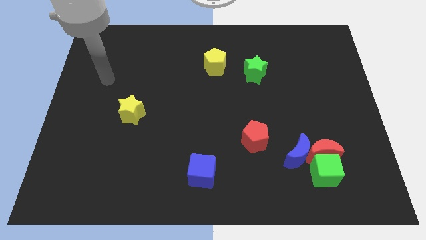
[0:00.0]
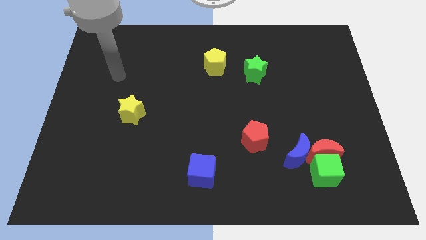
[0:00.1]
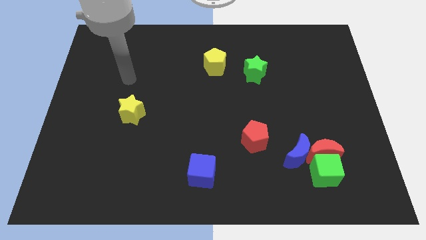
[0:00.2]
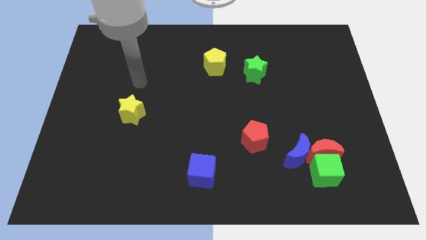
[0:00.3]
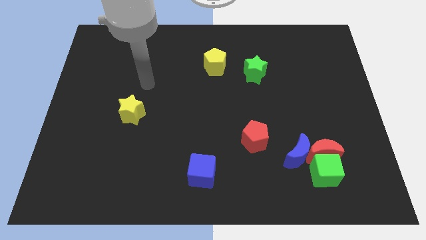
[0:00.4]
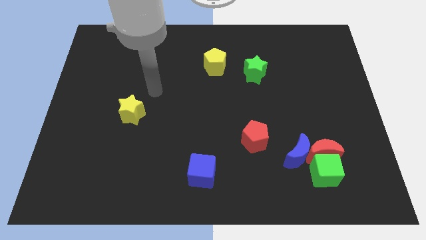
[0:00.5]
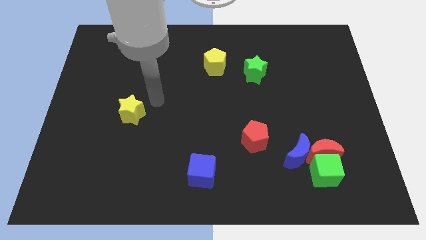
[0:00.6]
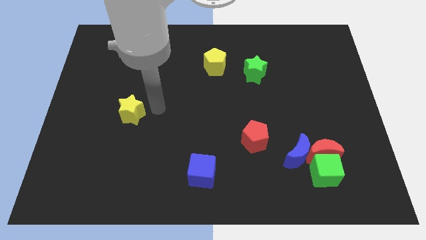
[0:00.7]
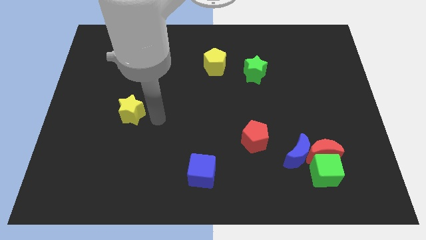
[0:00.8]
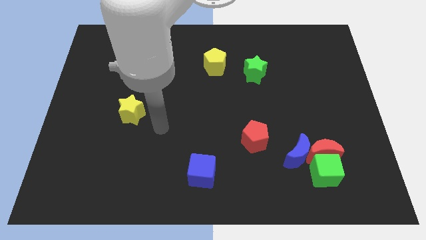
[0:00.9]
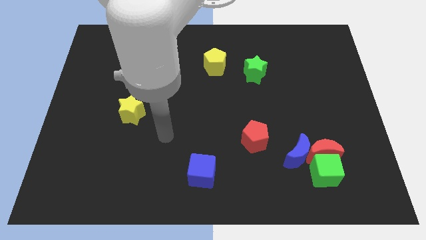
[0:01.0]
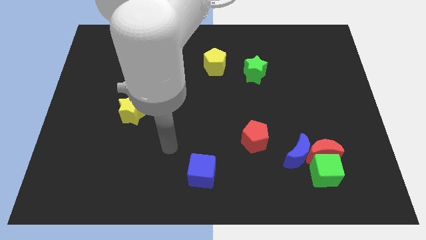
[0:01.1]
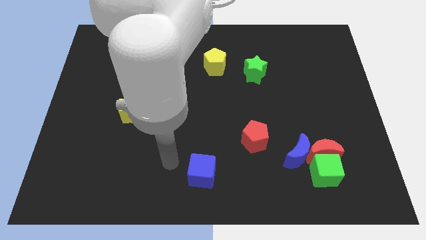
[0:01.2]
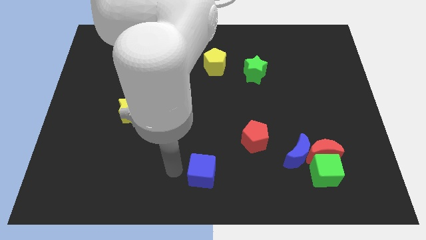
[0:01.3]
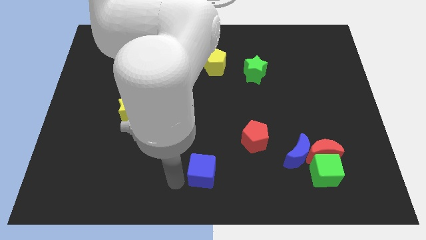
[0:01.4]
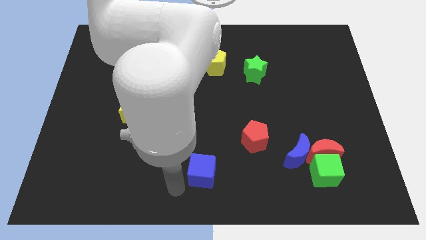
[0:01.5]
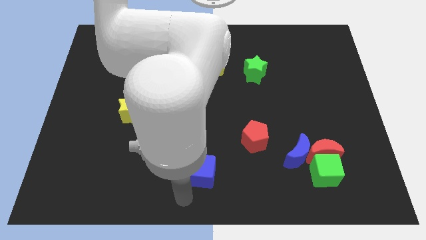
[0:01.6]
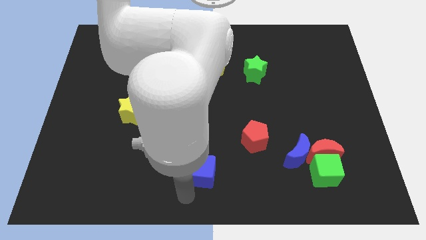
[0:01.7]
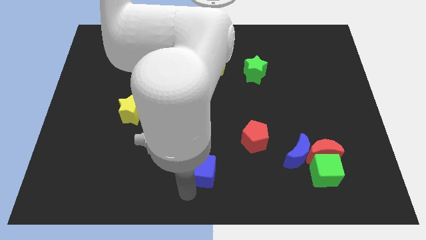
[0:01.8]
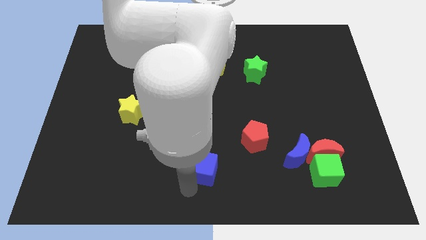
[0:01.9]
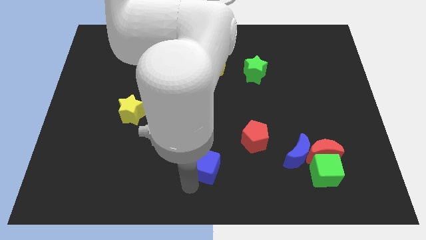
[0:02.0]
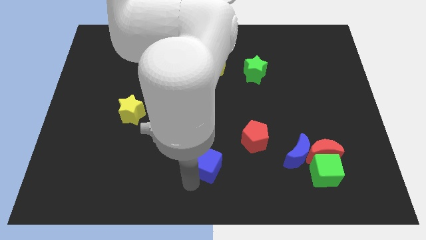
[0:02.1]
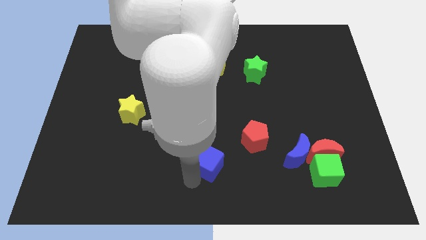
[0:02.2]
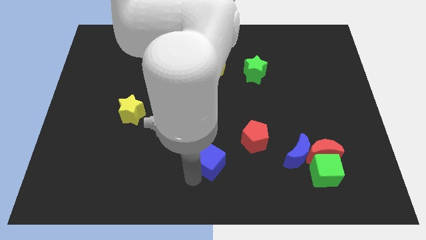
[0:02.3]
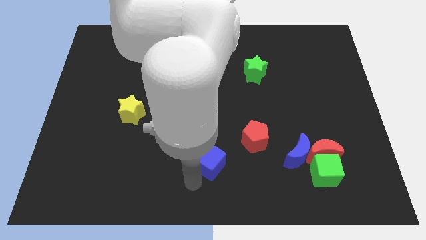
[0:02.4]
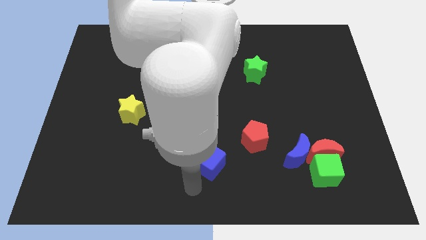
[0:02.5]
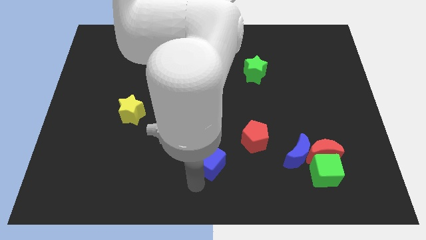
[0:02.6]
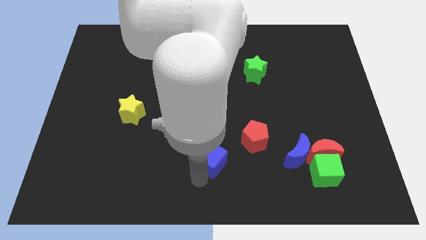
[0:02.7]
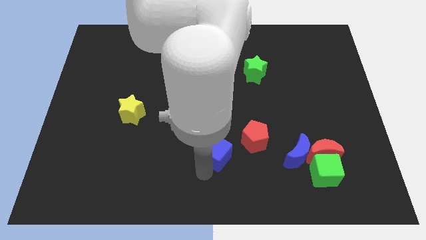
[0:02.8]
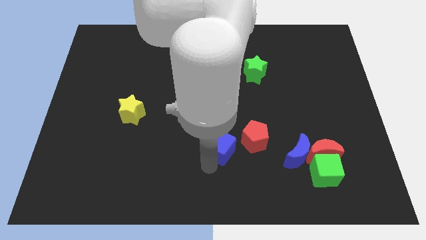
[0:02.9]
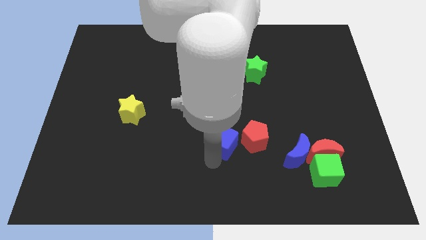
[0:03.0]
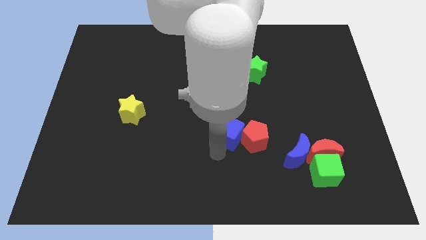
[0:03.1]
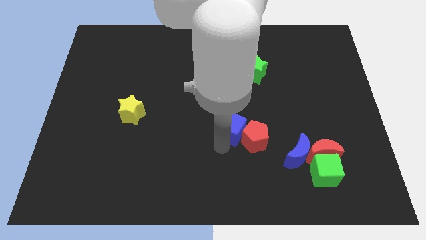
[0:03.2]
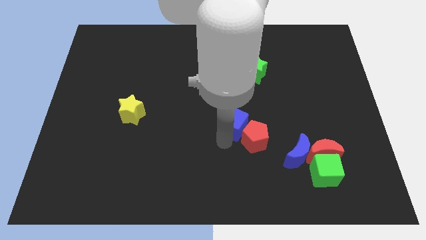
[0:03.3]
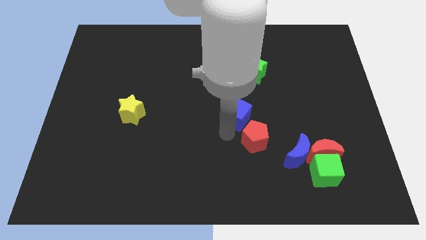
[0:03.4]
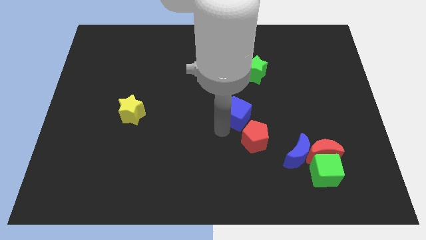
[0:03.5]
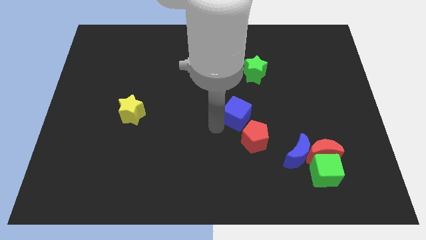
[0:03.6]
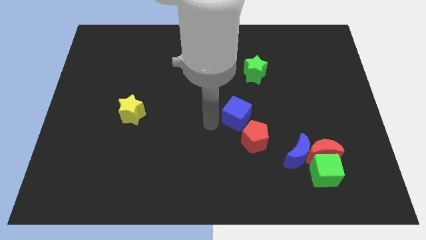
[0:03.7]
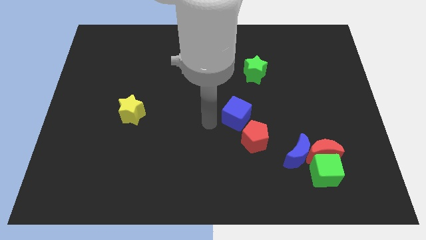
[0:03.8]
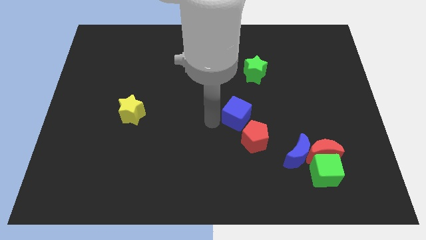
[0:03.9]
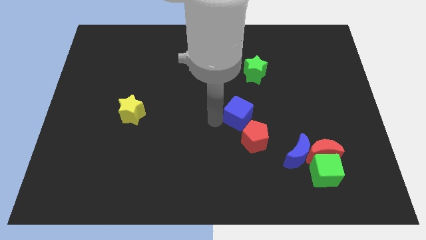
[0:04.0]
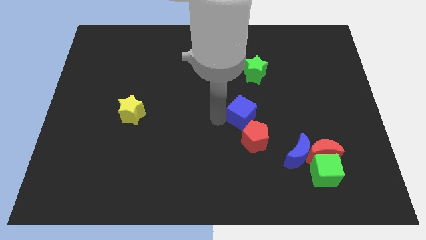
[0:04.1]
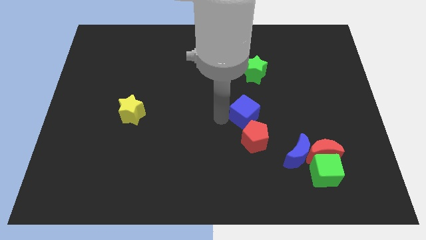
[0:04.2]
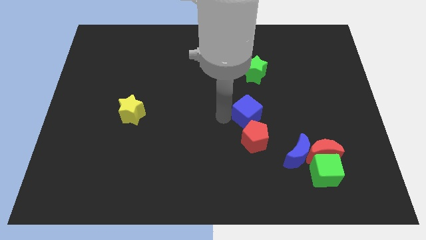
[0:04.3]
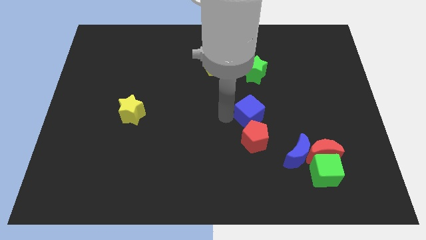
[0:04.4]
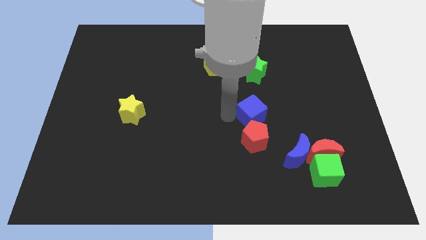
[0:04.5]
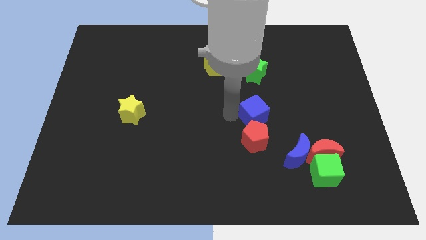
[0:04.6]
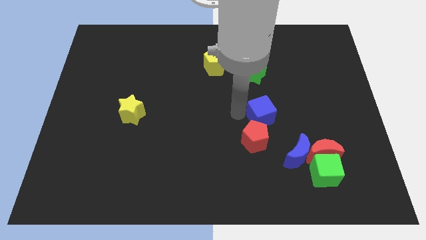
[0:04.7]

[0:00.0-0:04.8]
push the blue cube upwards and then to the right

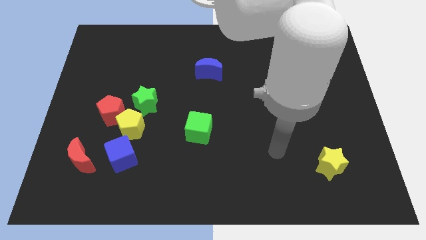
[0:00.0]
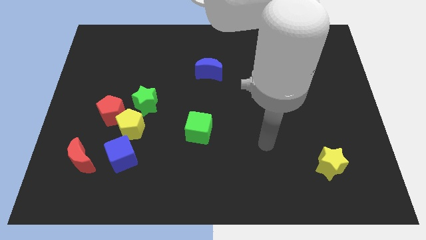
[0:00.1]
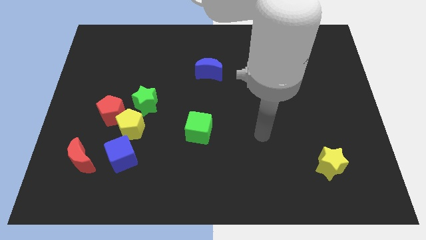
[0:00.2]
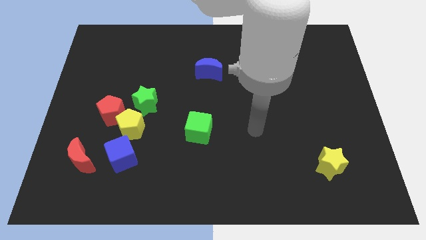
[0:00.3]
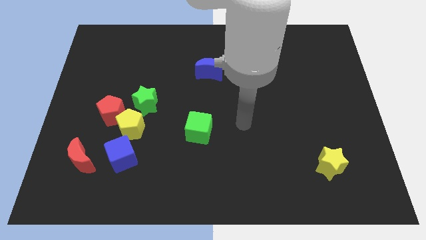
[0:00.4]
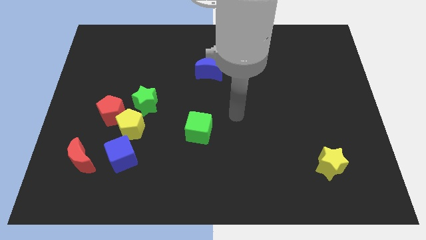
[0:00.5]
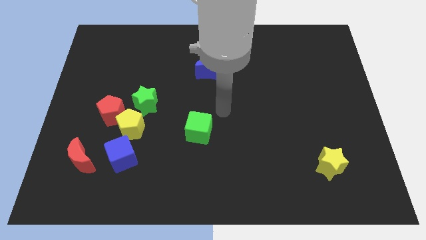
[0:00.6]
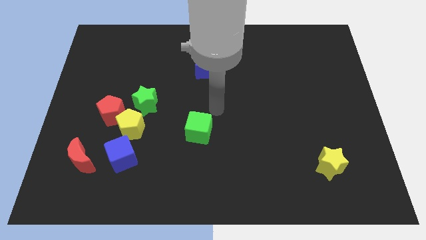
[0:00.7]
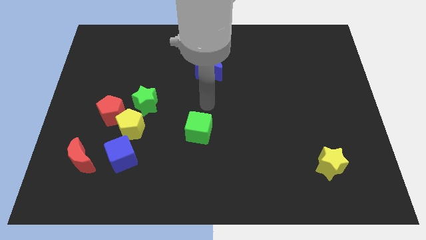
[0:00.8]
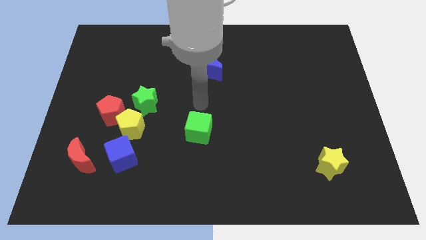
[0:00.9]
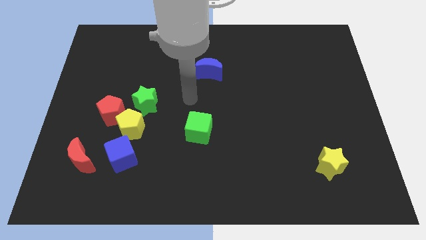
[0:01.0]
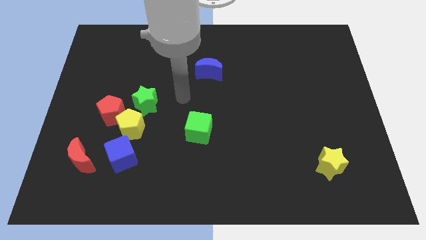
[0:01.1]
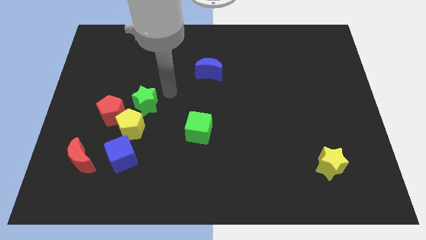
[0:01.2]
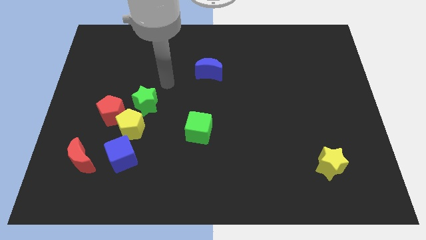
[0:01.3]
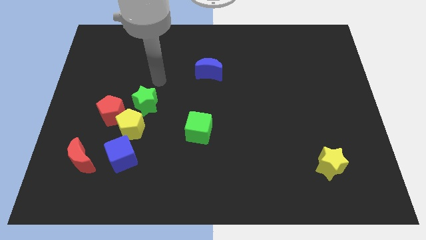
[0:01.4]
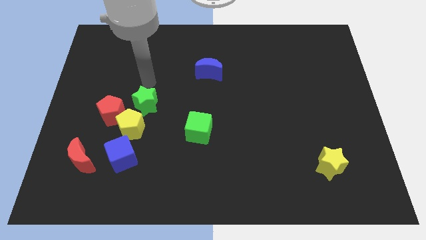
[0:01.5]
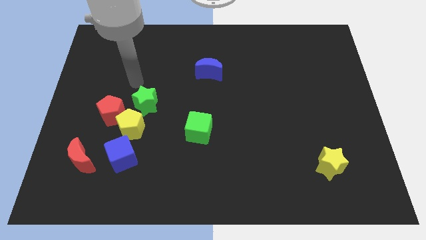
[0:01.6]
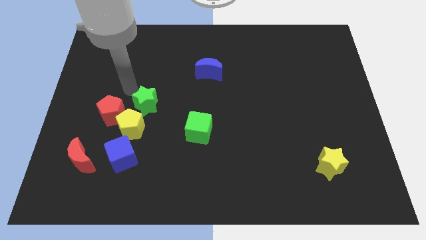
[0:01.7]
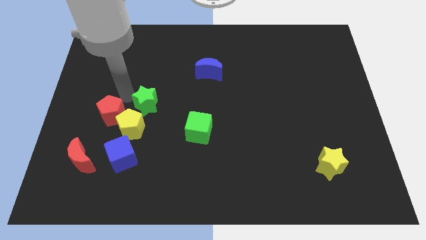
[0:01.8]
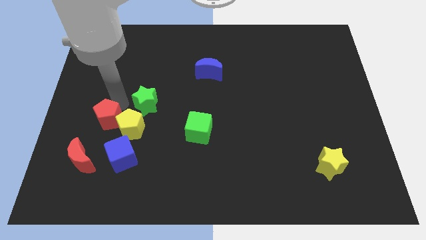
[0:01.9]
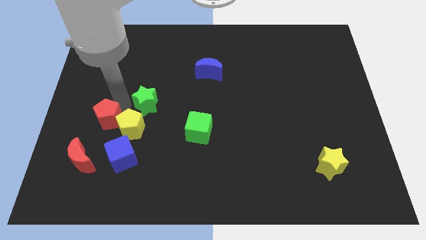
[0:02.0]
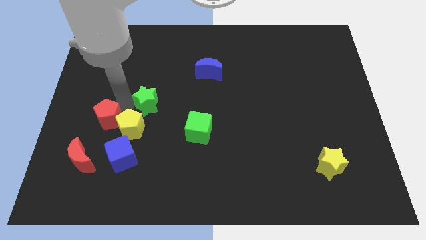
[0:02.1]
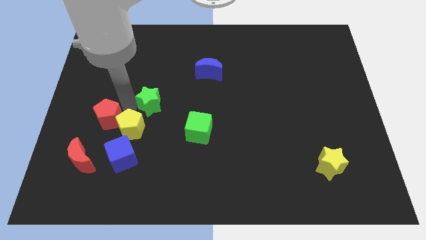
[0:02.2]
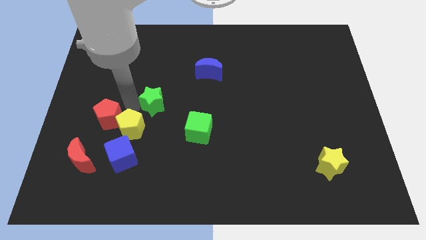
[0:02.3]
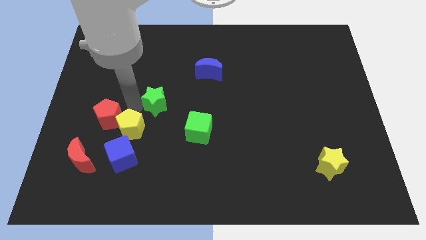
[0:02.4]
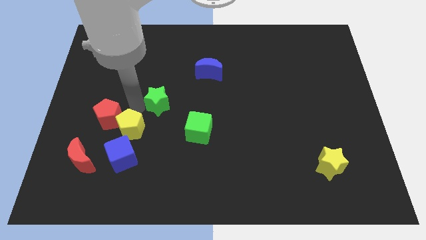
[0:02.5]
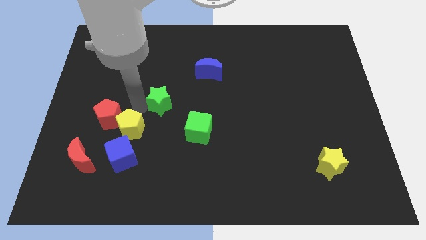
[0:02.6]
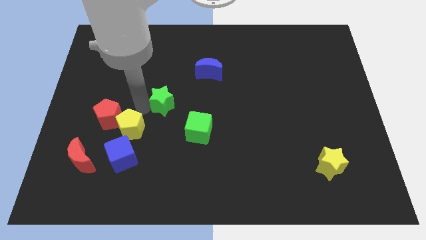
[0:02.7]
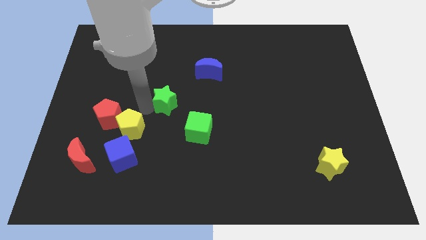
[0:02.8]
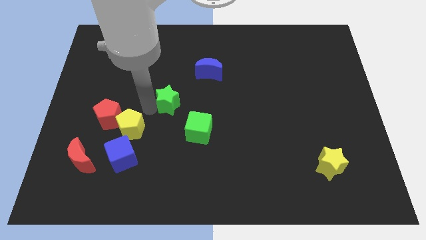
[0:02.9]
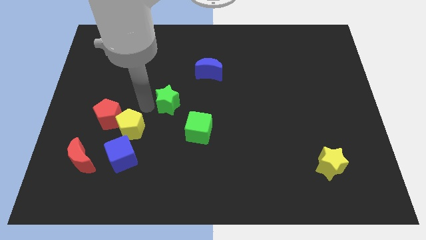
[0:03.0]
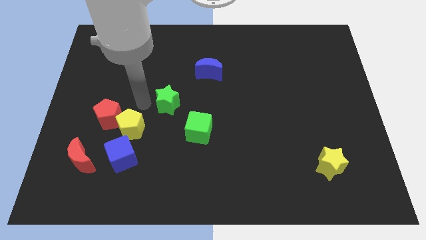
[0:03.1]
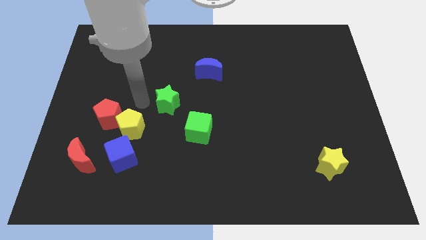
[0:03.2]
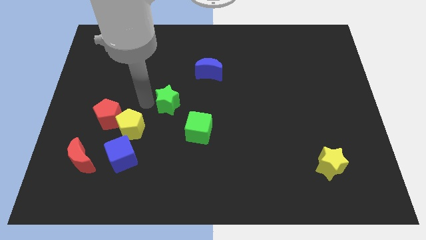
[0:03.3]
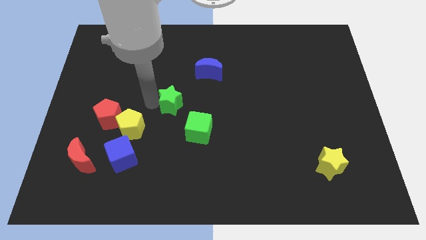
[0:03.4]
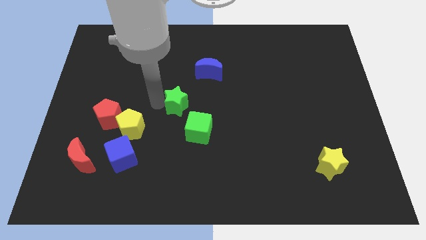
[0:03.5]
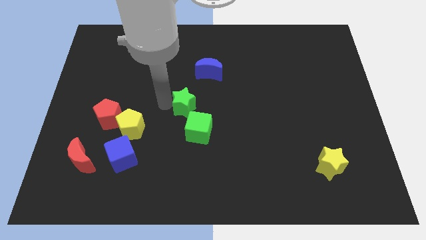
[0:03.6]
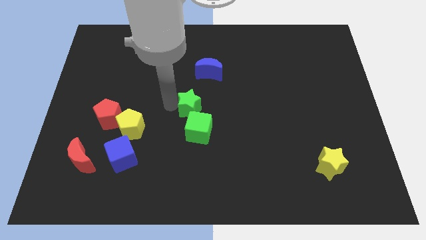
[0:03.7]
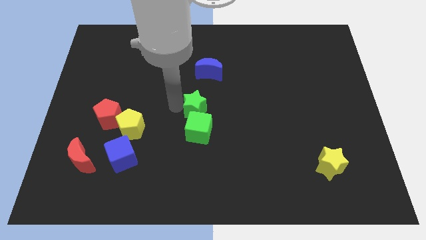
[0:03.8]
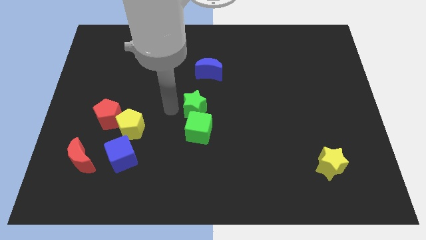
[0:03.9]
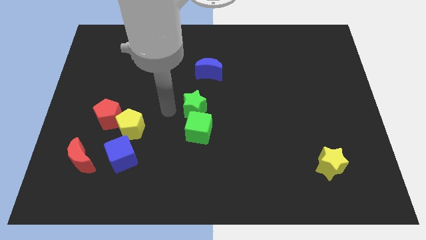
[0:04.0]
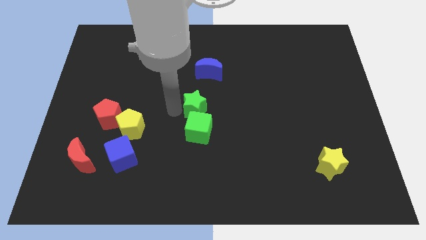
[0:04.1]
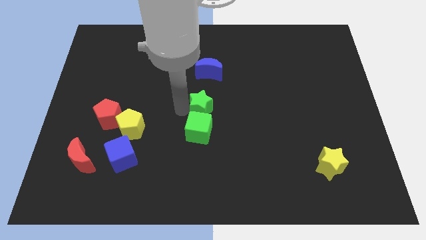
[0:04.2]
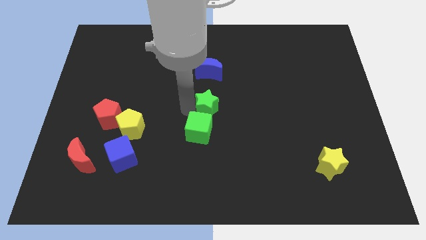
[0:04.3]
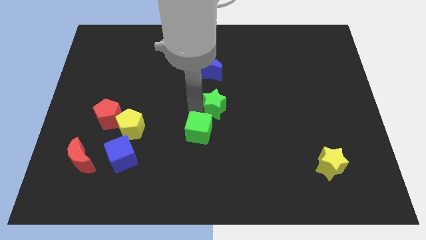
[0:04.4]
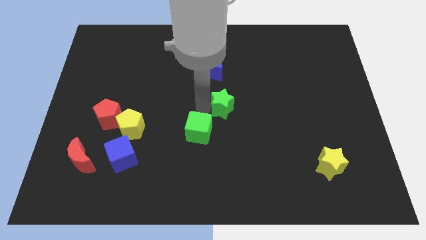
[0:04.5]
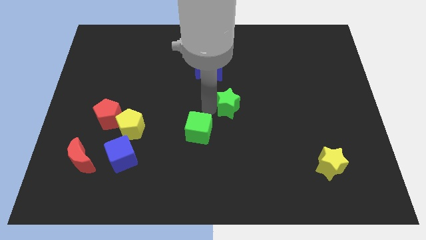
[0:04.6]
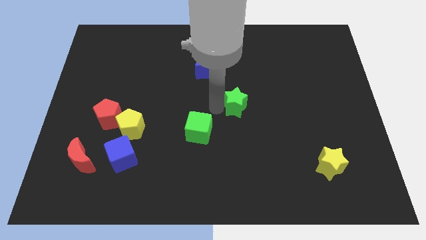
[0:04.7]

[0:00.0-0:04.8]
move the green star to the right
